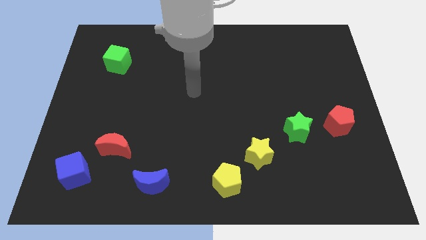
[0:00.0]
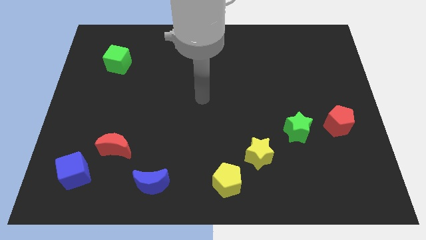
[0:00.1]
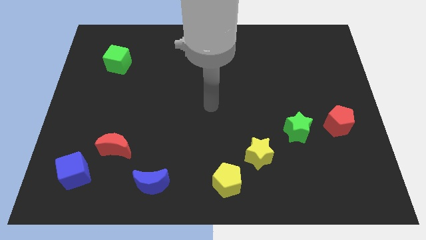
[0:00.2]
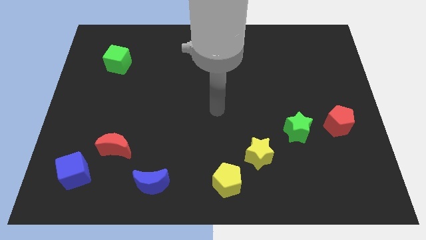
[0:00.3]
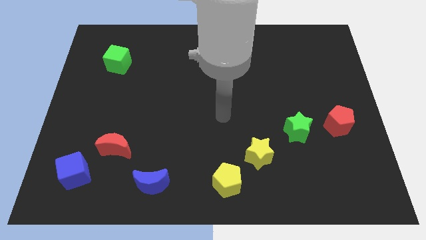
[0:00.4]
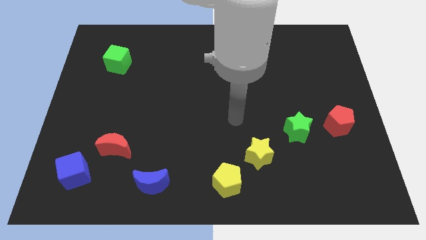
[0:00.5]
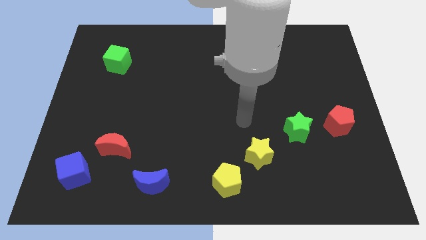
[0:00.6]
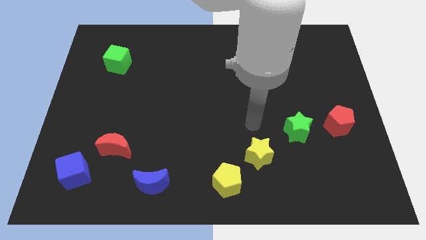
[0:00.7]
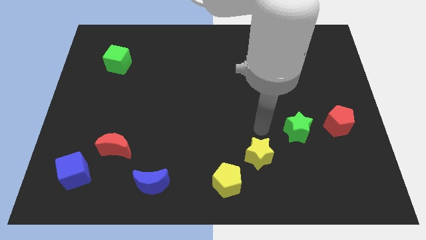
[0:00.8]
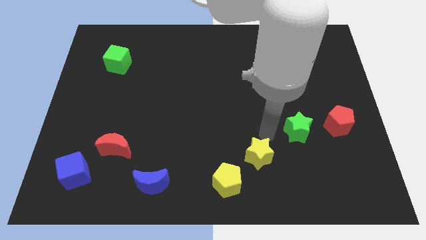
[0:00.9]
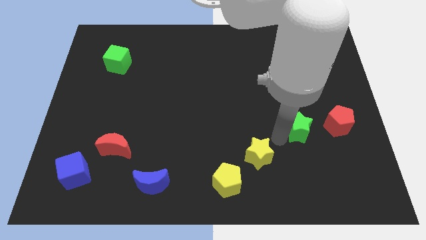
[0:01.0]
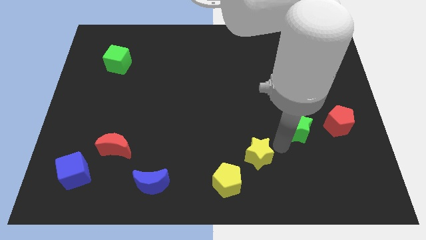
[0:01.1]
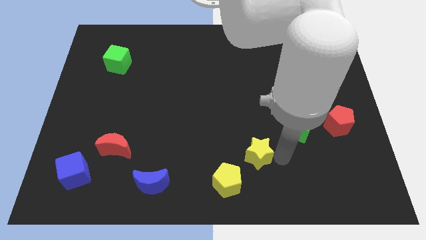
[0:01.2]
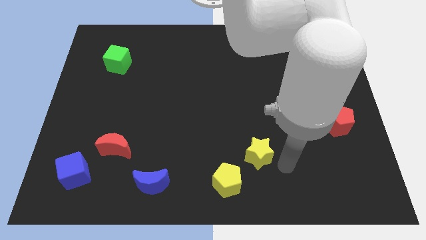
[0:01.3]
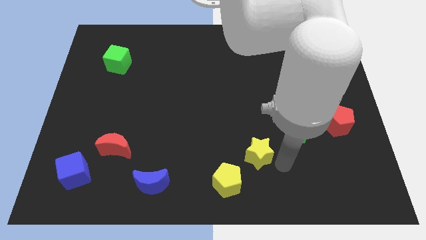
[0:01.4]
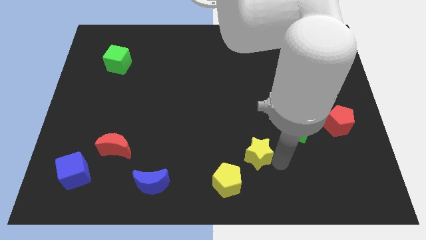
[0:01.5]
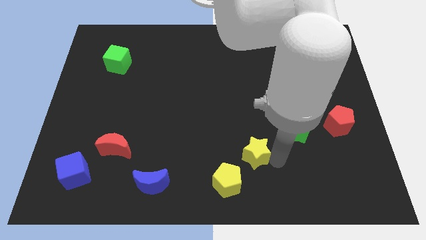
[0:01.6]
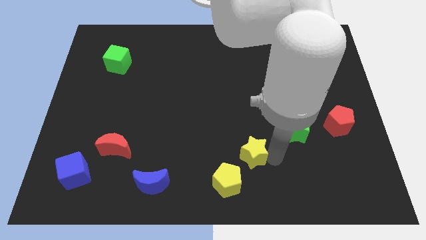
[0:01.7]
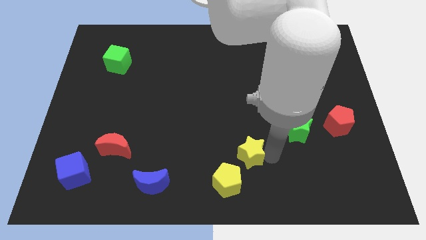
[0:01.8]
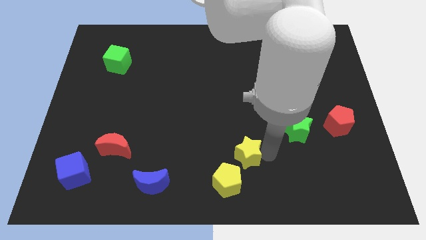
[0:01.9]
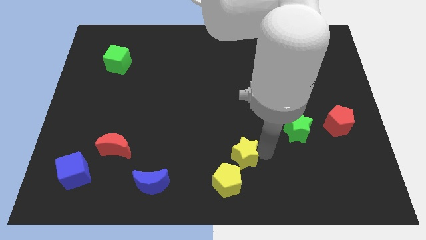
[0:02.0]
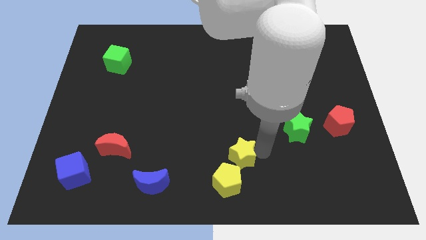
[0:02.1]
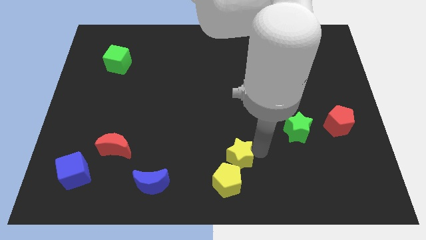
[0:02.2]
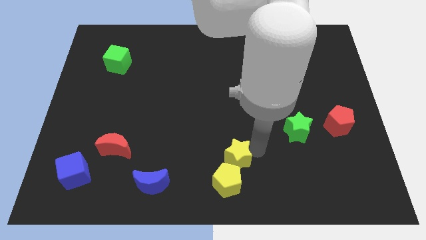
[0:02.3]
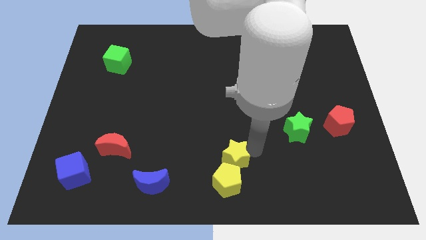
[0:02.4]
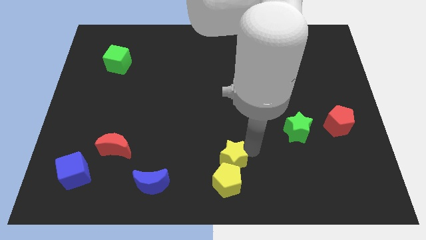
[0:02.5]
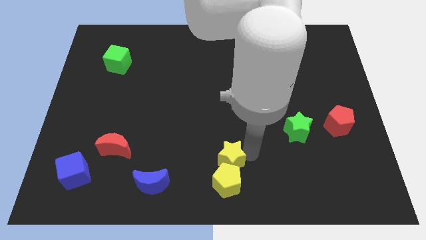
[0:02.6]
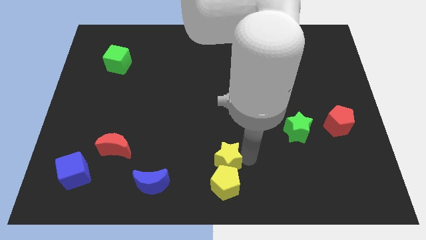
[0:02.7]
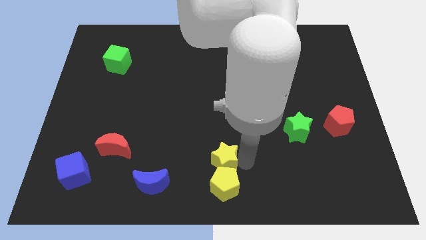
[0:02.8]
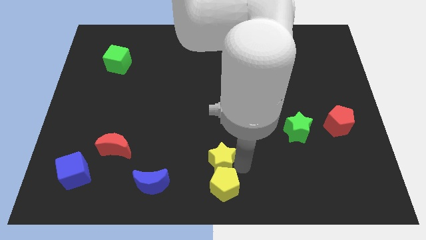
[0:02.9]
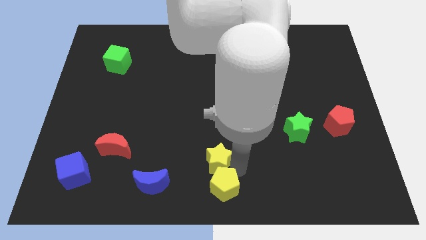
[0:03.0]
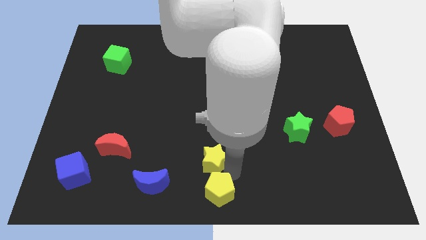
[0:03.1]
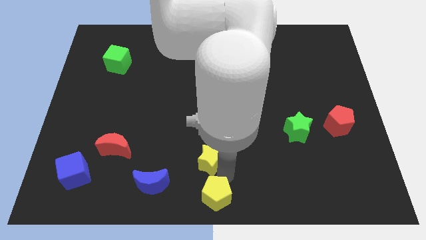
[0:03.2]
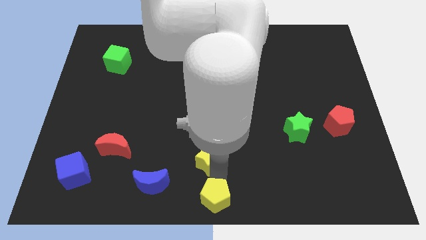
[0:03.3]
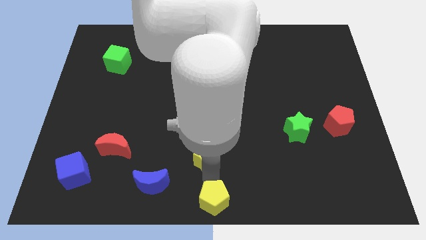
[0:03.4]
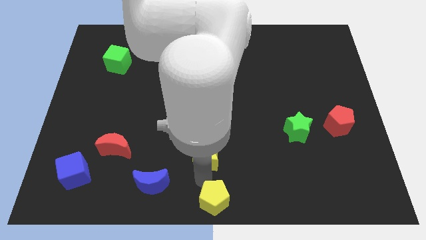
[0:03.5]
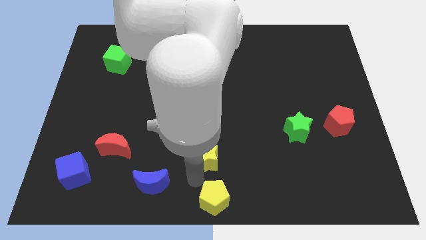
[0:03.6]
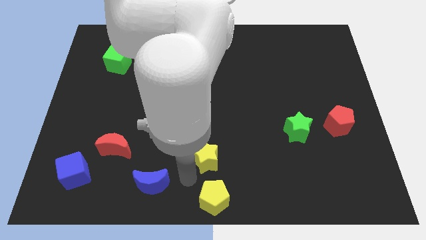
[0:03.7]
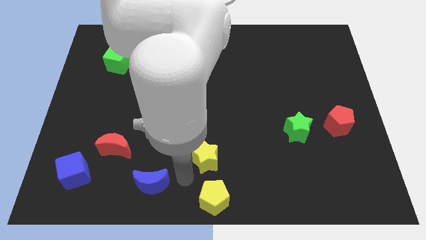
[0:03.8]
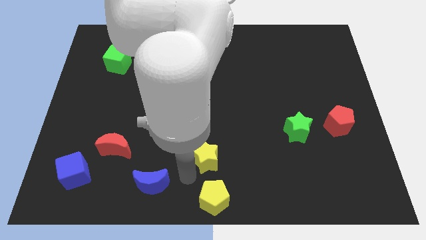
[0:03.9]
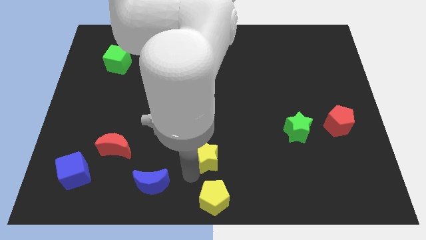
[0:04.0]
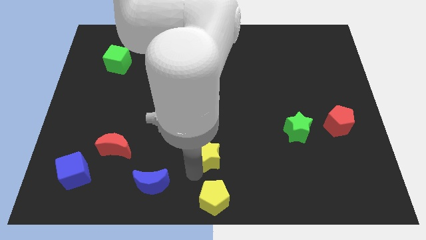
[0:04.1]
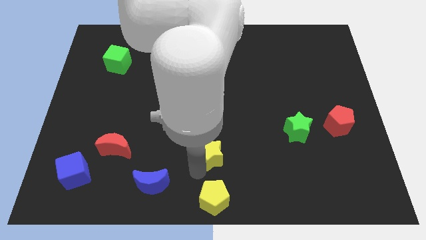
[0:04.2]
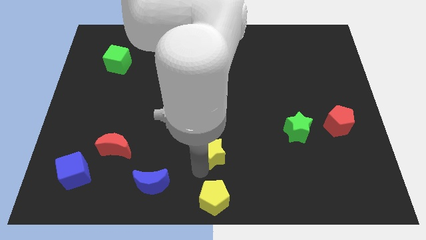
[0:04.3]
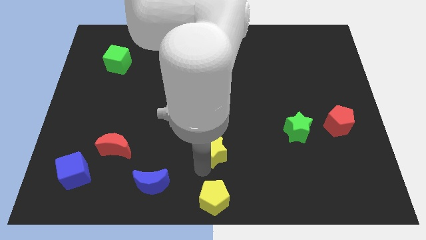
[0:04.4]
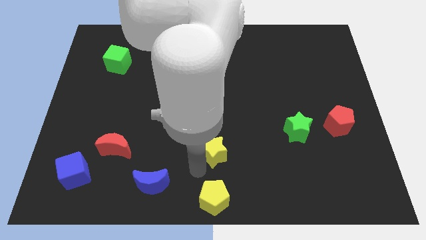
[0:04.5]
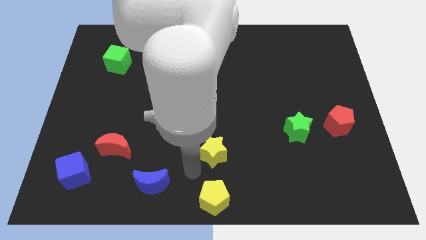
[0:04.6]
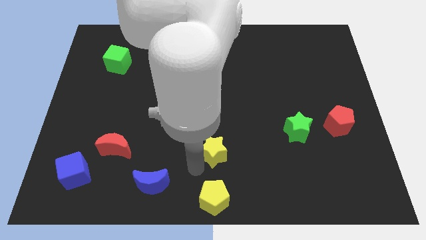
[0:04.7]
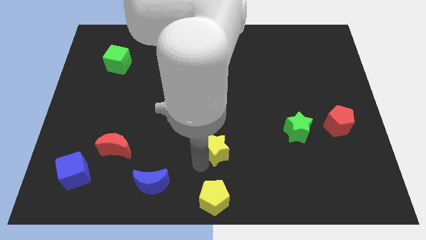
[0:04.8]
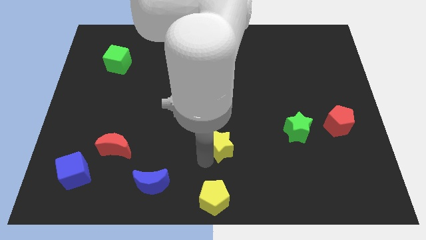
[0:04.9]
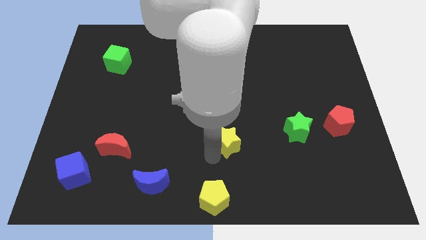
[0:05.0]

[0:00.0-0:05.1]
move the yellow star to the middle
